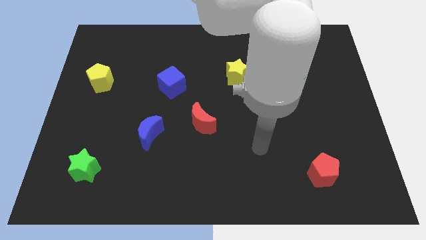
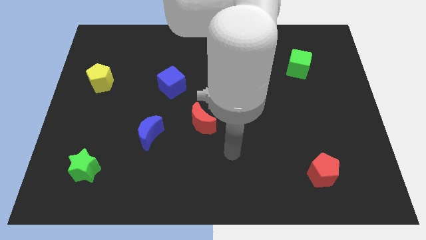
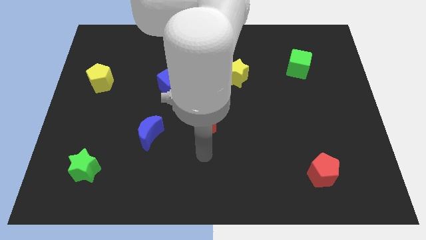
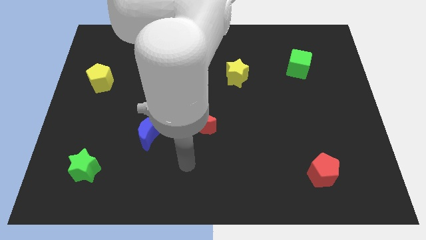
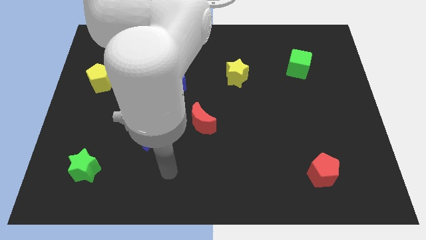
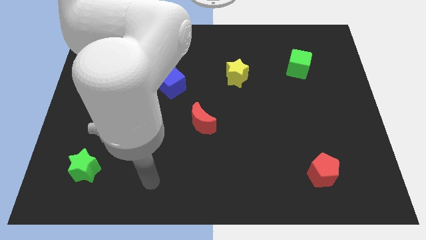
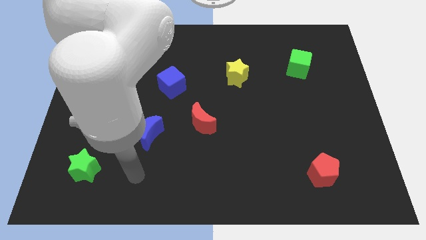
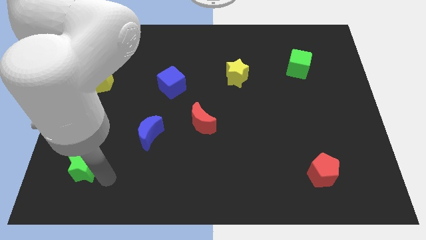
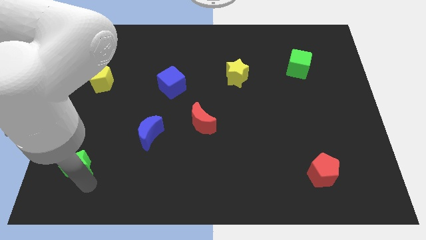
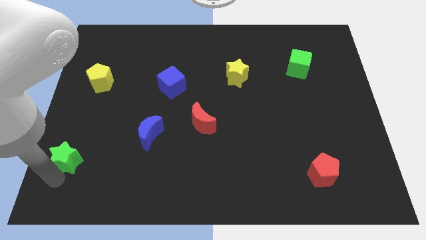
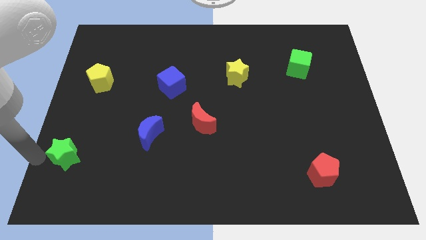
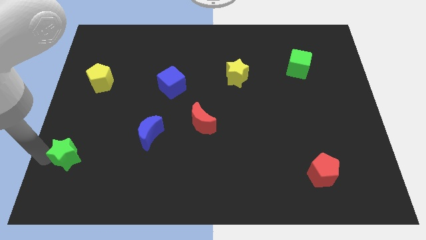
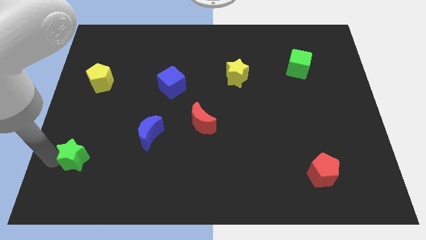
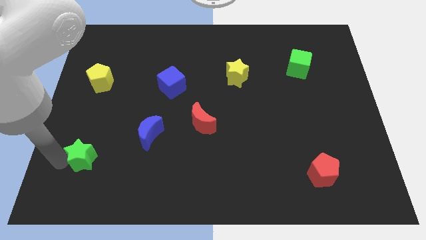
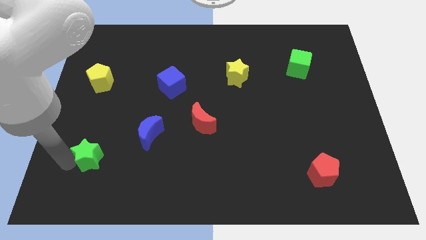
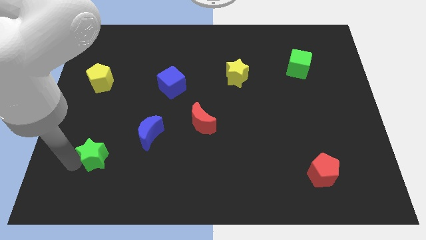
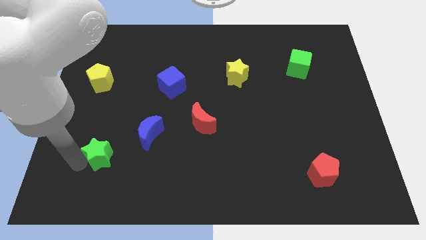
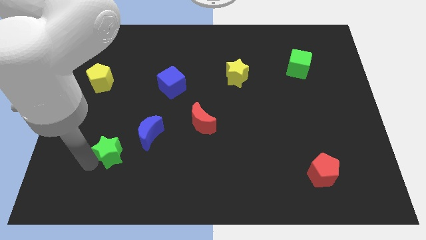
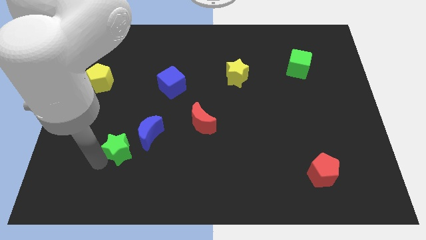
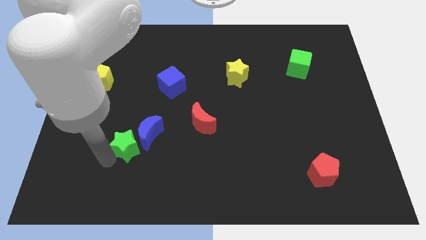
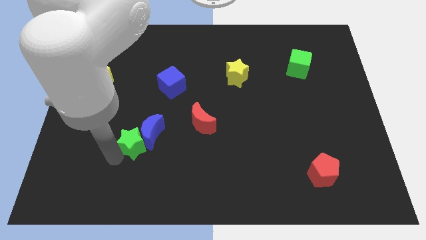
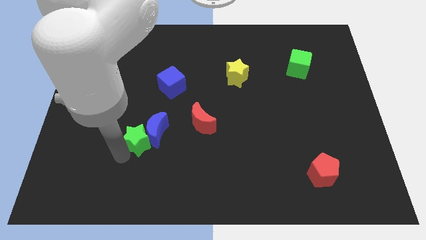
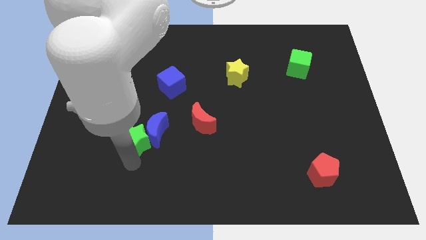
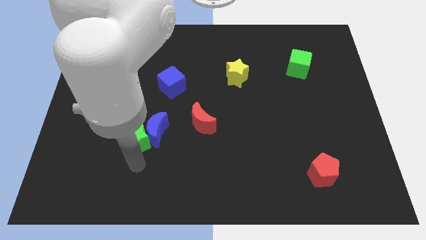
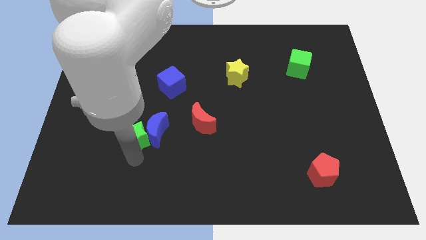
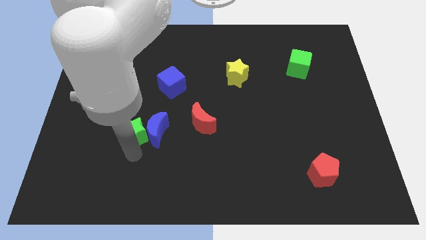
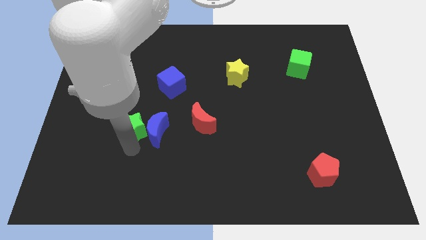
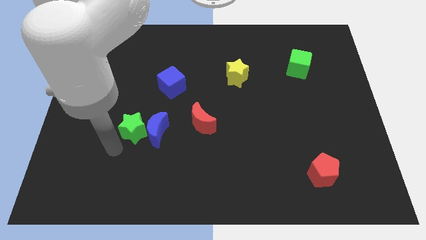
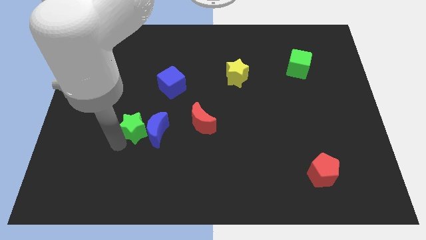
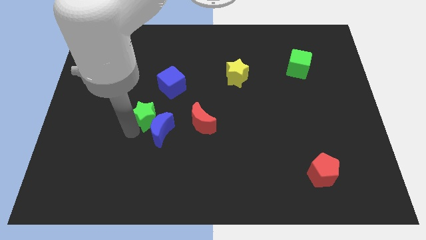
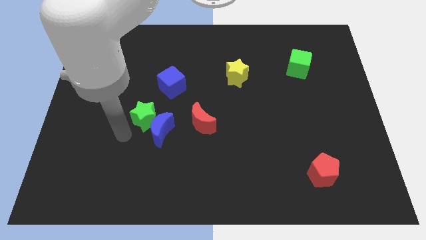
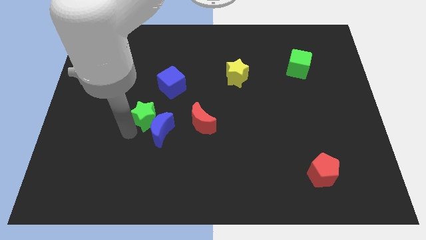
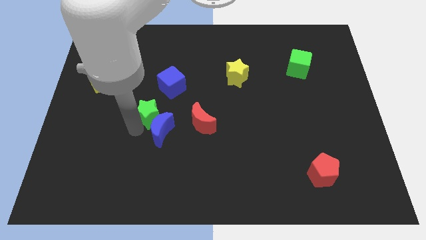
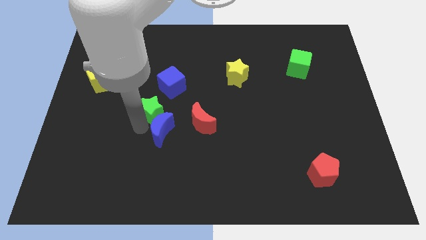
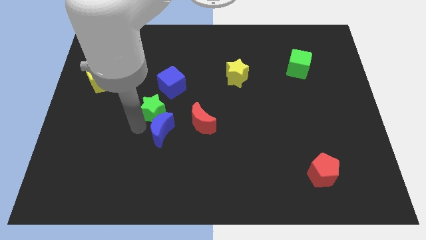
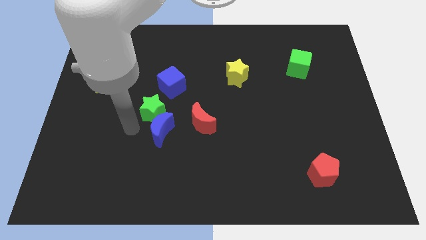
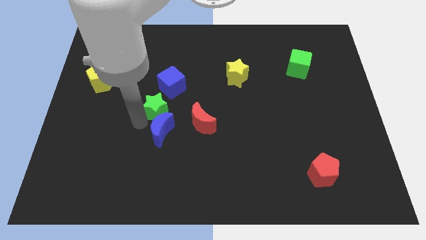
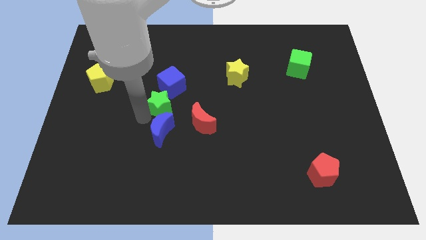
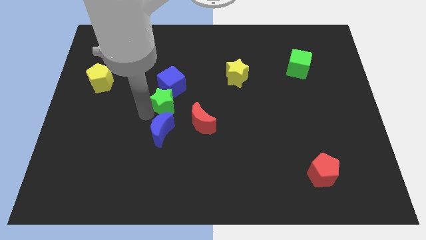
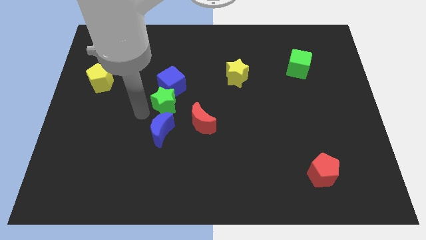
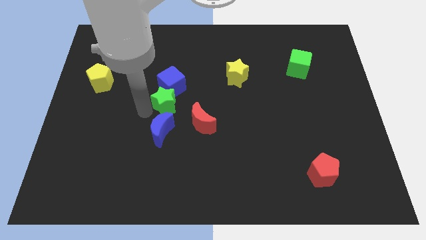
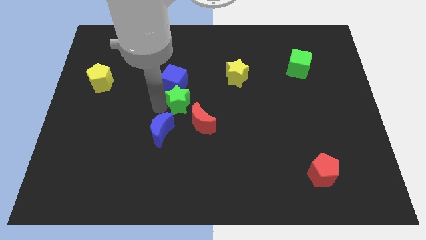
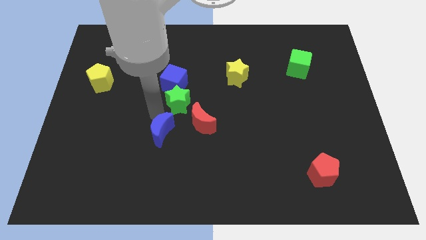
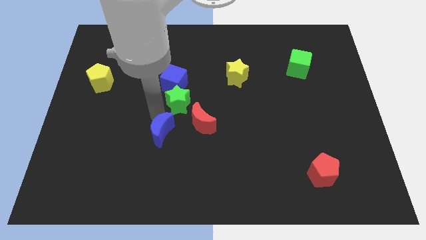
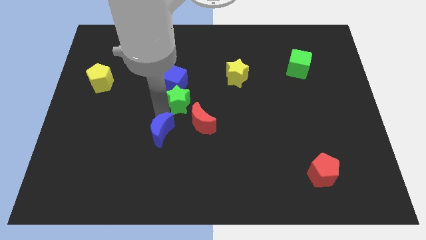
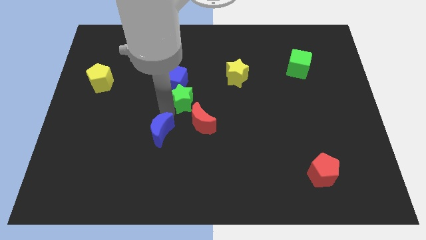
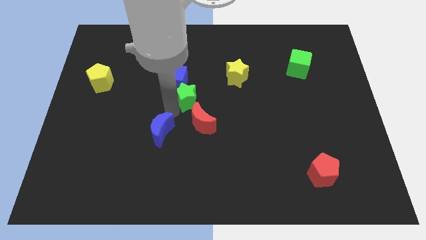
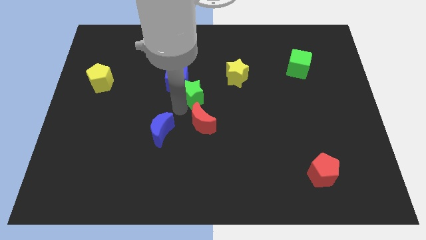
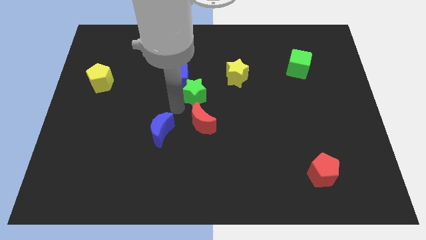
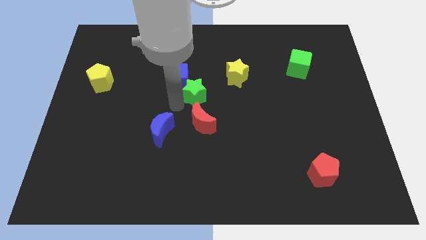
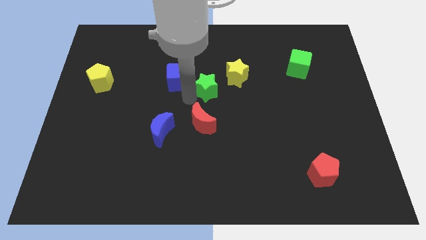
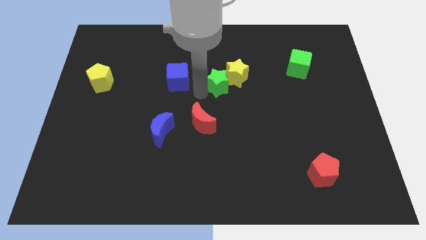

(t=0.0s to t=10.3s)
push the green star next to the yellow star

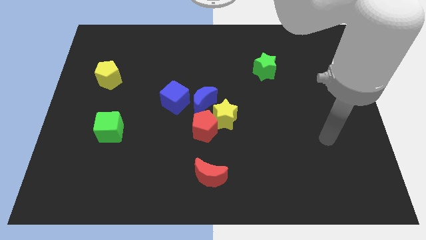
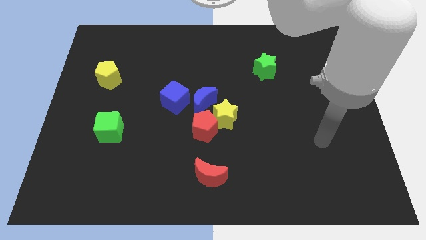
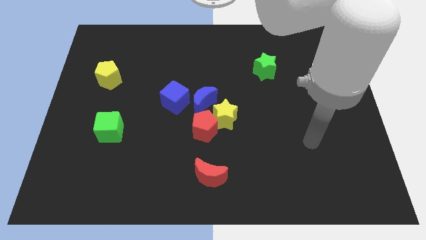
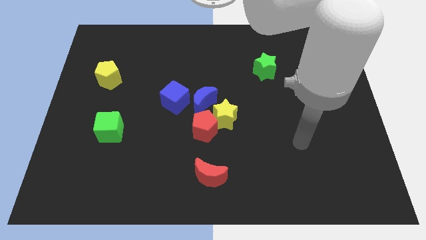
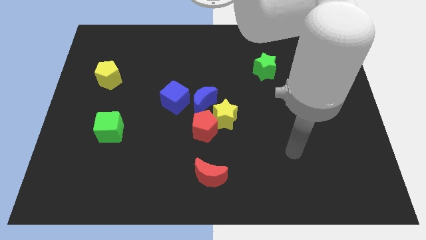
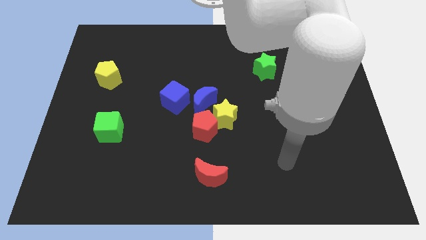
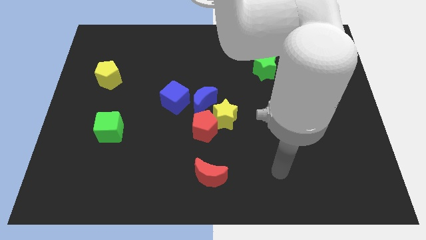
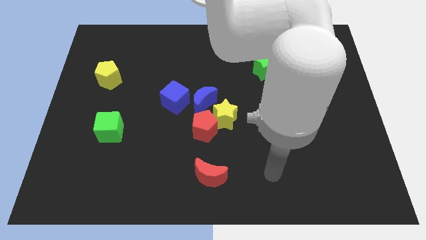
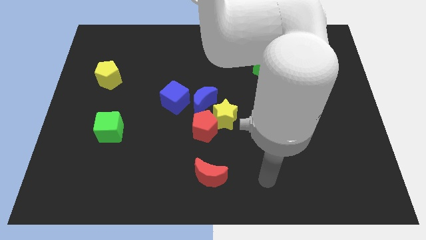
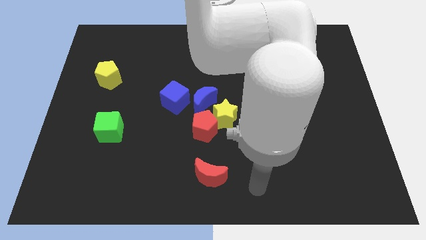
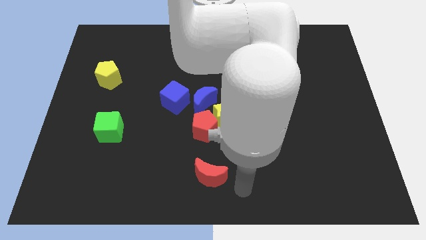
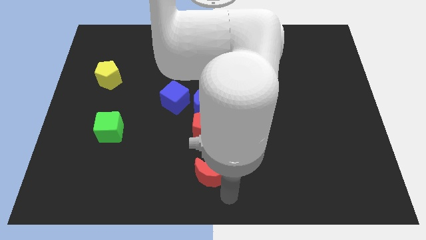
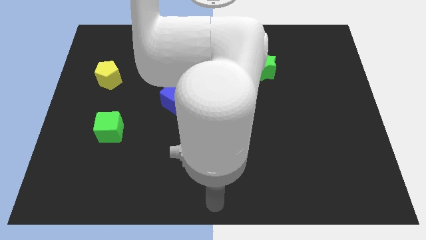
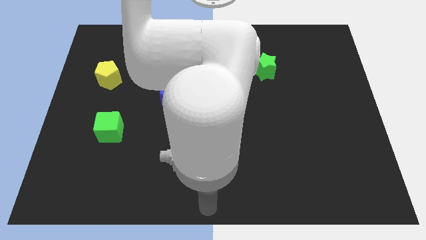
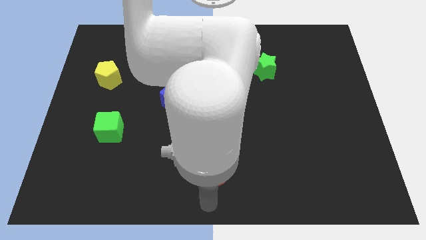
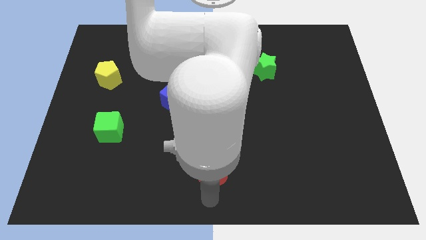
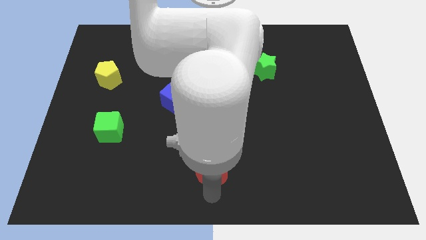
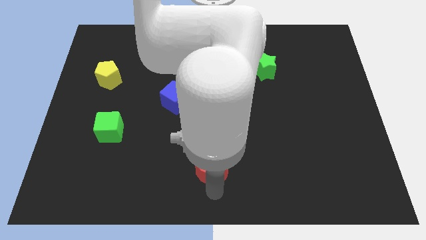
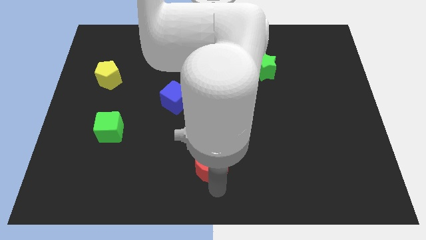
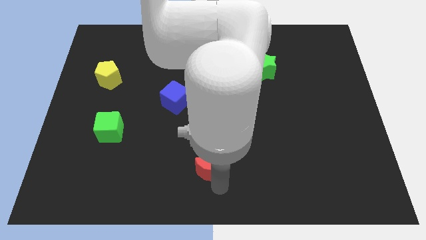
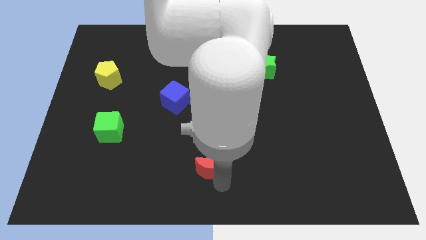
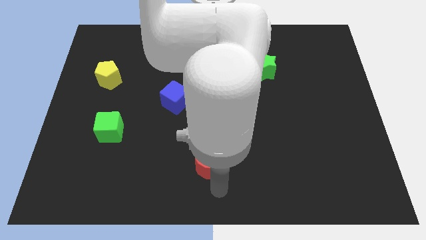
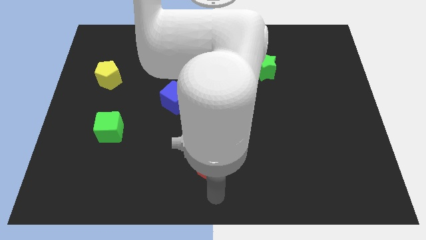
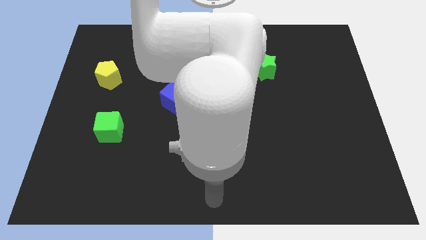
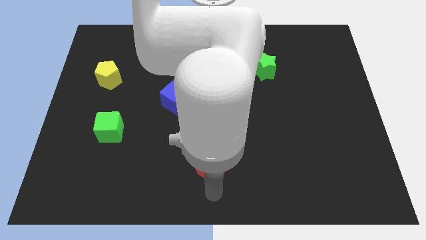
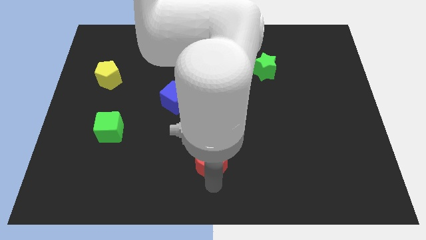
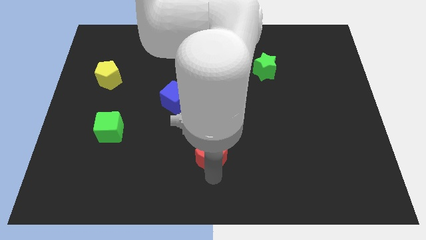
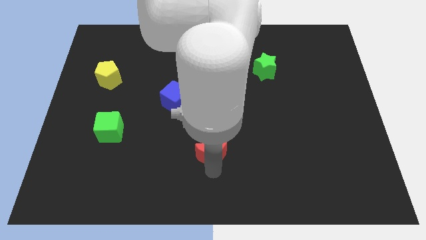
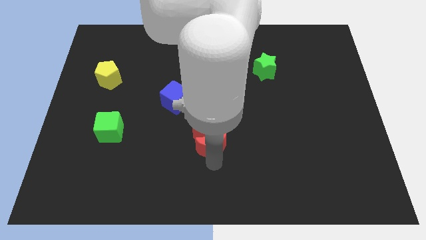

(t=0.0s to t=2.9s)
put the red moon next to the red pentagon
